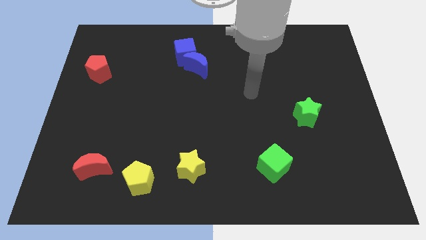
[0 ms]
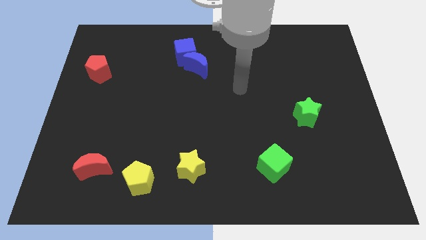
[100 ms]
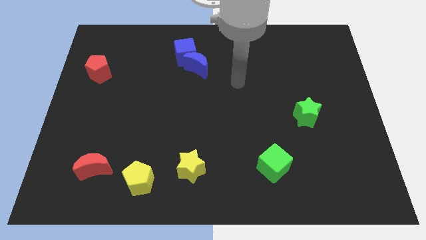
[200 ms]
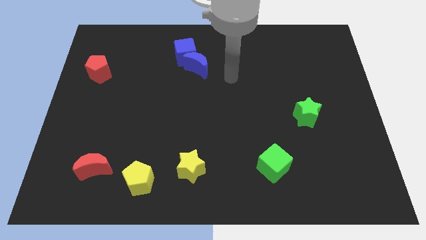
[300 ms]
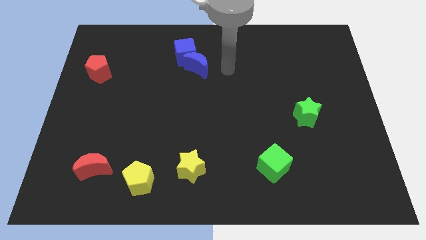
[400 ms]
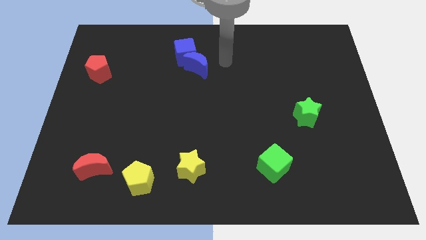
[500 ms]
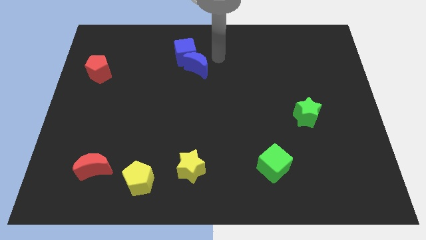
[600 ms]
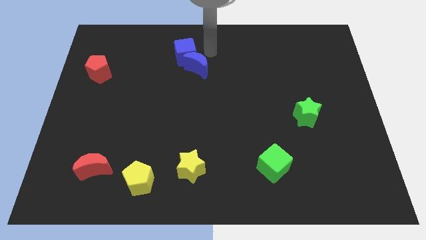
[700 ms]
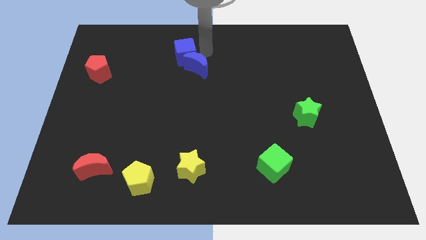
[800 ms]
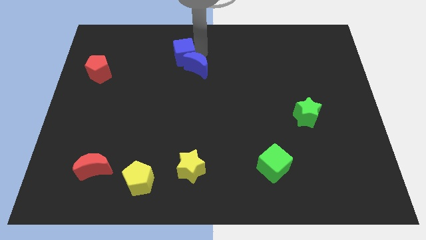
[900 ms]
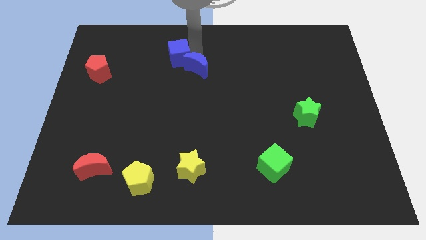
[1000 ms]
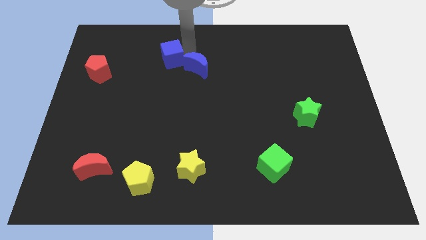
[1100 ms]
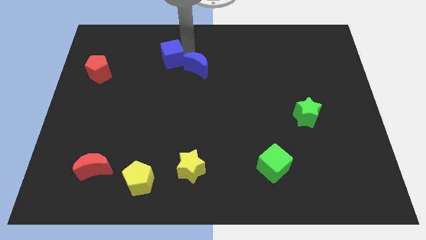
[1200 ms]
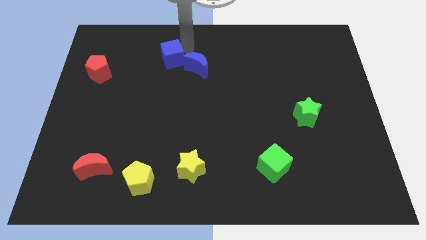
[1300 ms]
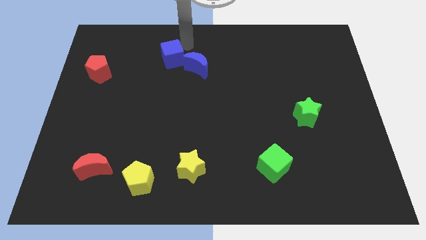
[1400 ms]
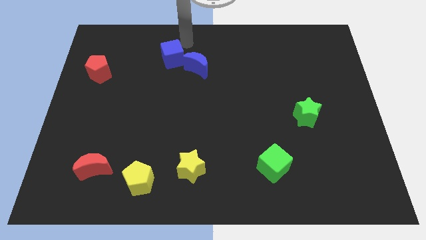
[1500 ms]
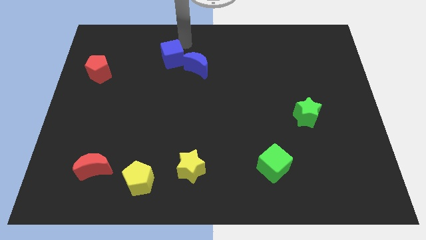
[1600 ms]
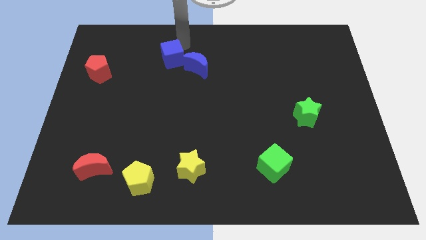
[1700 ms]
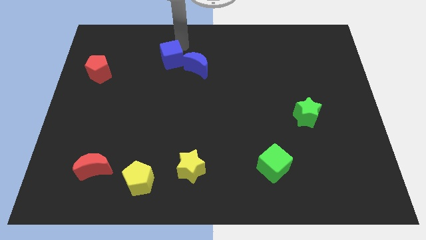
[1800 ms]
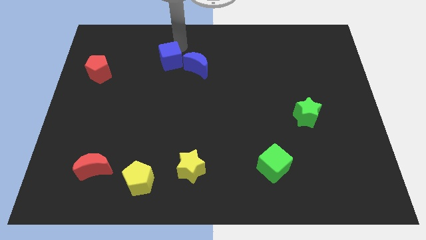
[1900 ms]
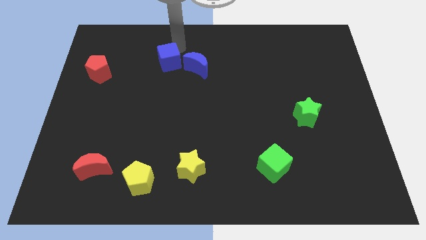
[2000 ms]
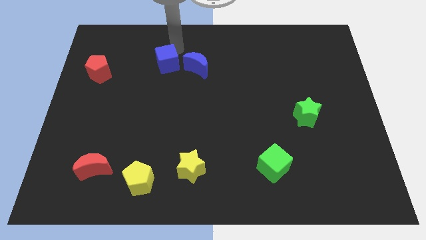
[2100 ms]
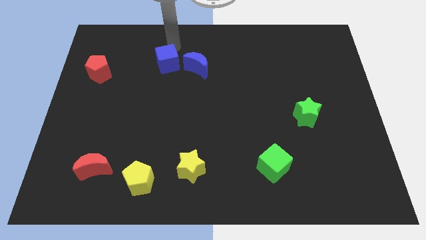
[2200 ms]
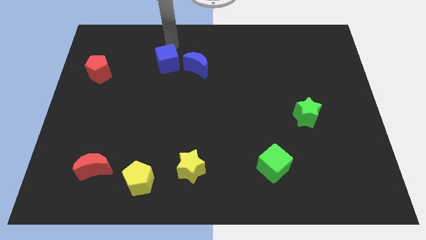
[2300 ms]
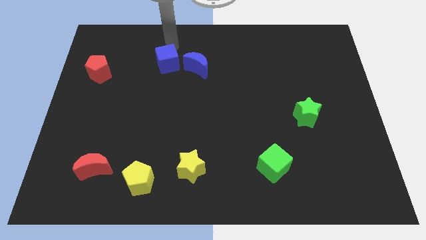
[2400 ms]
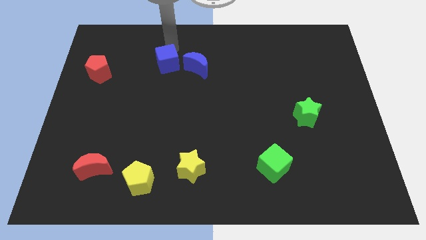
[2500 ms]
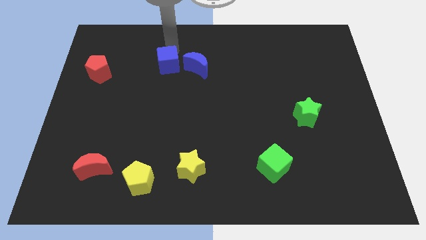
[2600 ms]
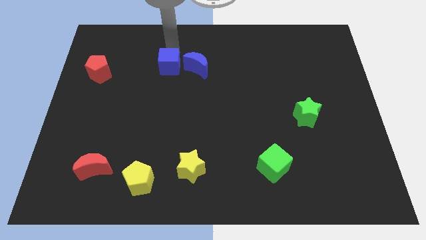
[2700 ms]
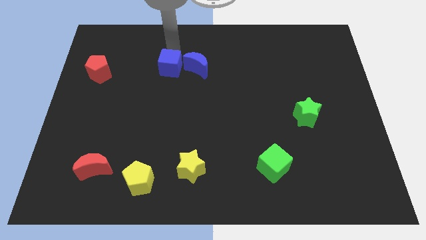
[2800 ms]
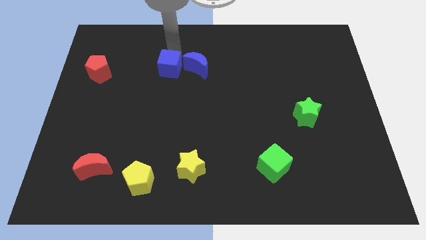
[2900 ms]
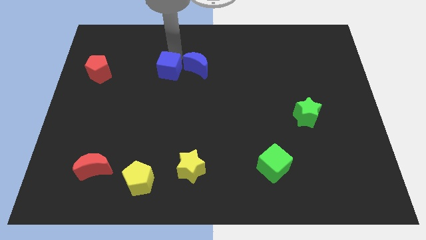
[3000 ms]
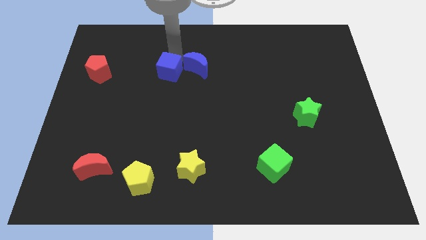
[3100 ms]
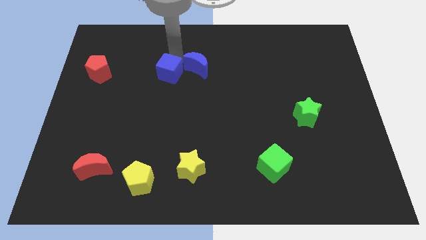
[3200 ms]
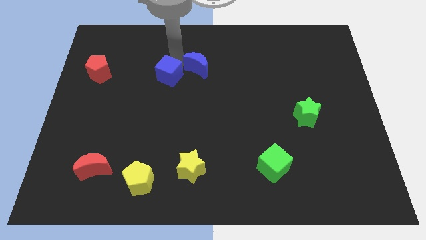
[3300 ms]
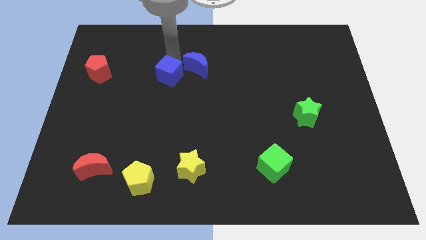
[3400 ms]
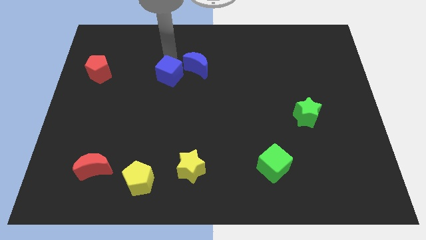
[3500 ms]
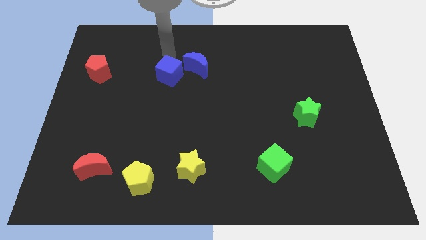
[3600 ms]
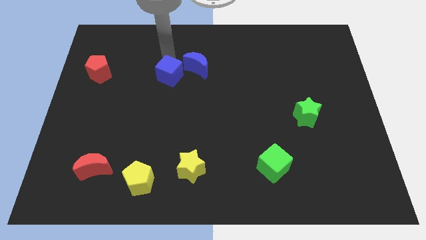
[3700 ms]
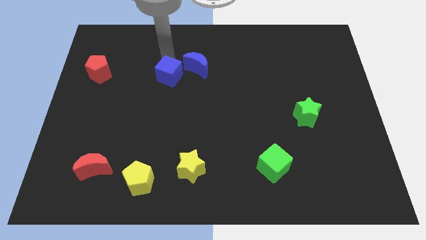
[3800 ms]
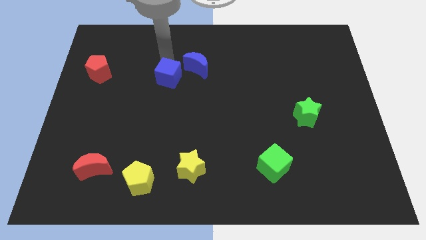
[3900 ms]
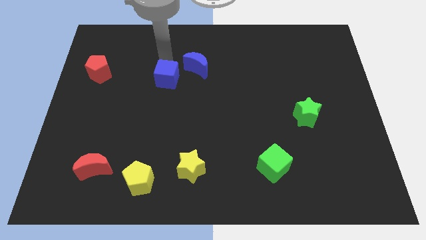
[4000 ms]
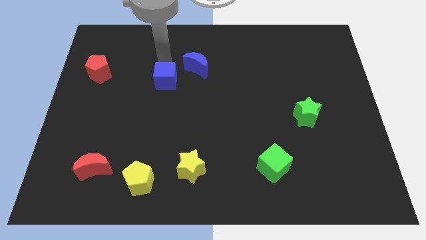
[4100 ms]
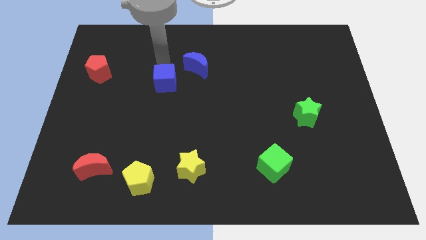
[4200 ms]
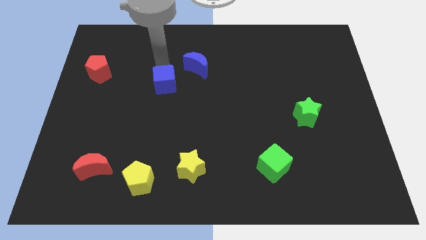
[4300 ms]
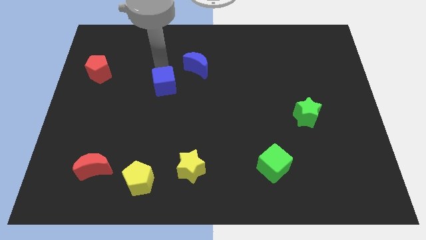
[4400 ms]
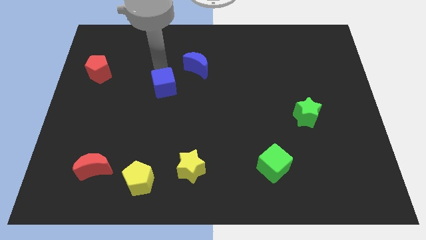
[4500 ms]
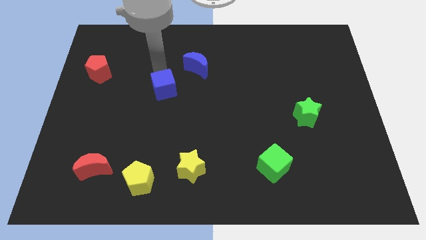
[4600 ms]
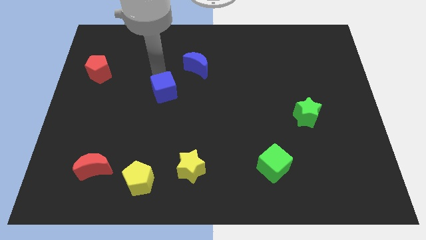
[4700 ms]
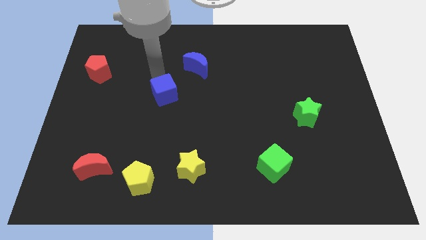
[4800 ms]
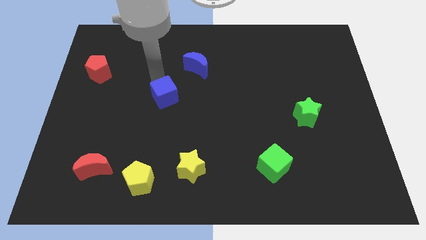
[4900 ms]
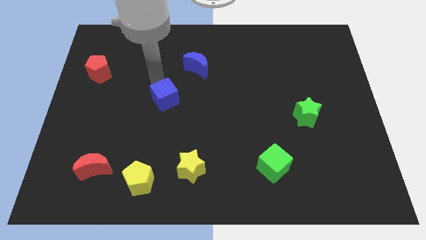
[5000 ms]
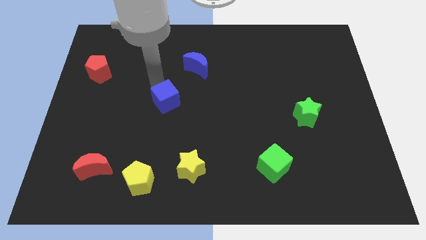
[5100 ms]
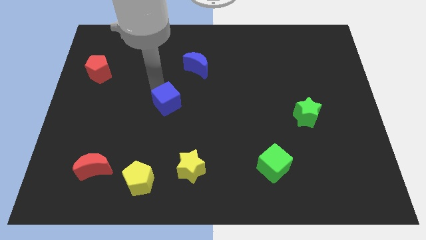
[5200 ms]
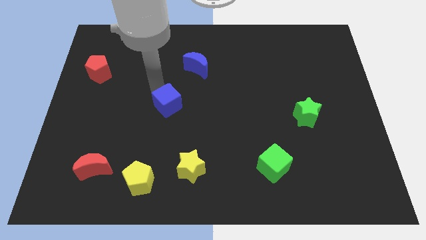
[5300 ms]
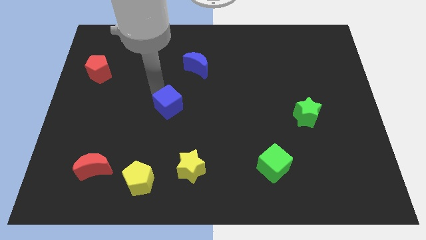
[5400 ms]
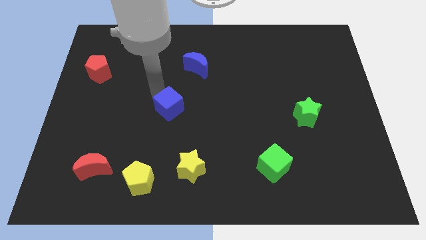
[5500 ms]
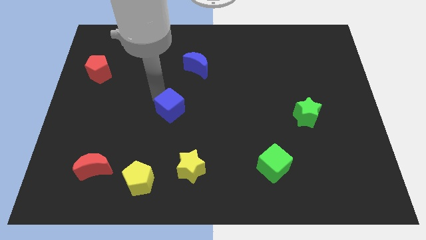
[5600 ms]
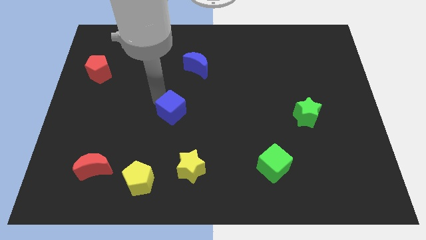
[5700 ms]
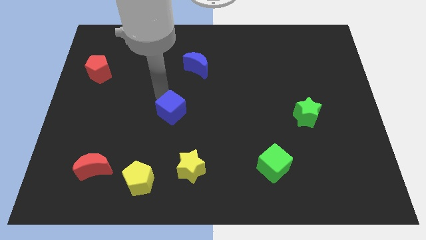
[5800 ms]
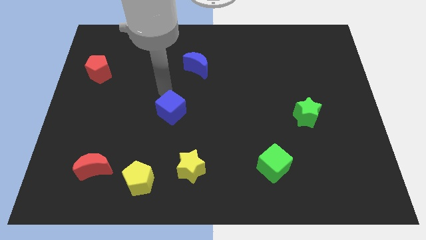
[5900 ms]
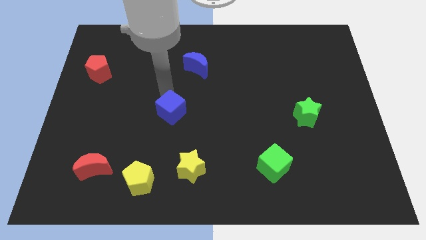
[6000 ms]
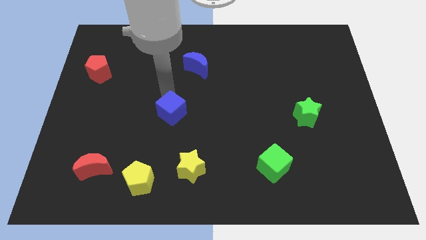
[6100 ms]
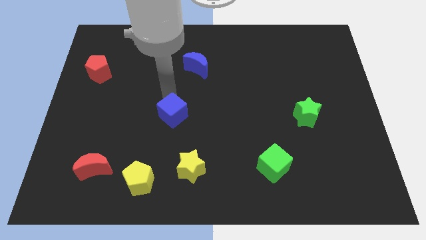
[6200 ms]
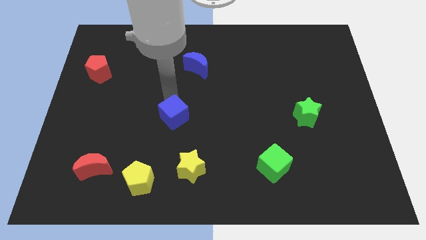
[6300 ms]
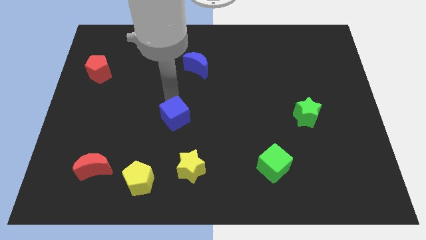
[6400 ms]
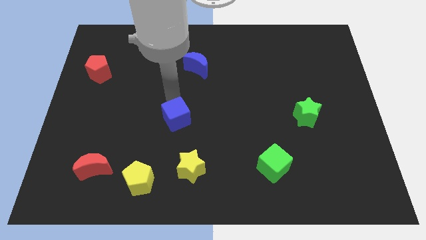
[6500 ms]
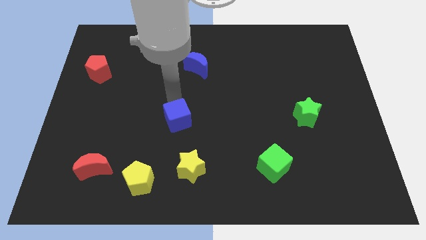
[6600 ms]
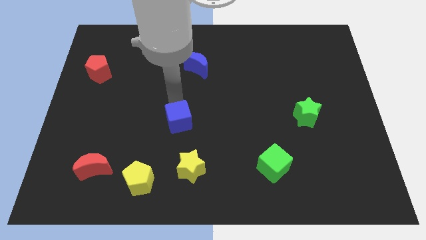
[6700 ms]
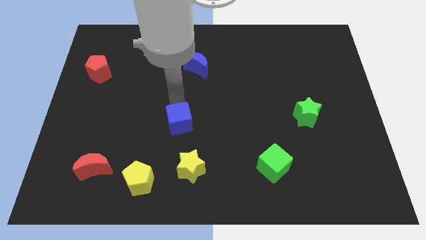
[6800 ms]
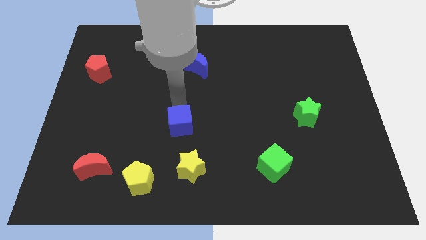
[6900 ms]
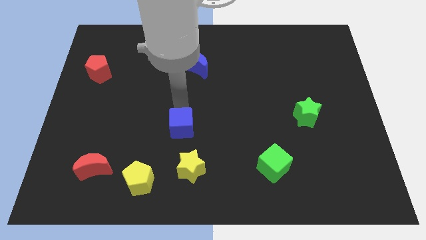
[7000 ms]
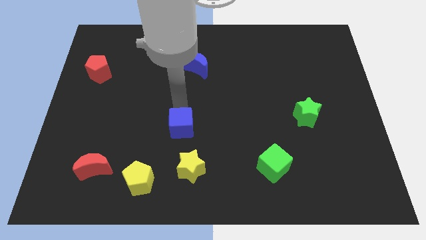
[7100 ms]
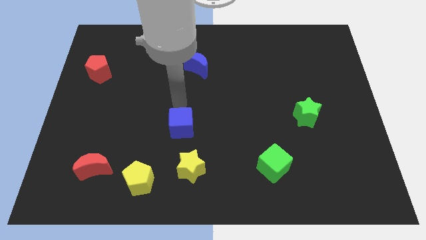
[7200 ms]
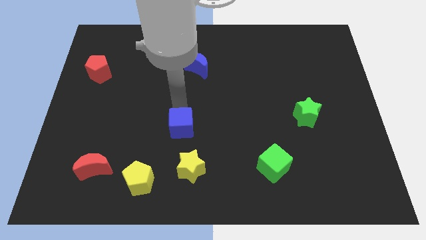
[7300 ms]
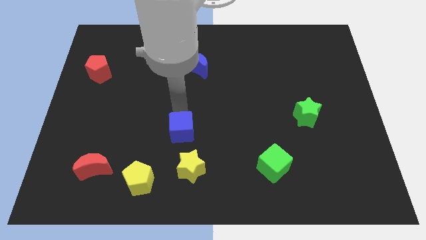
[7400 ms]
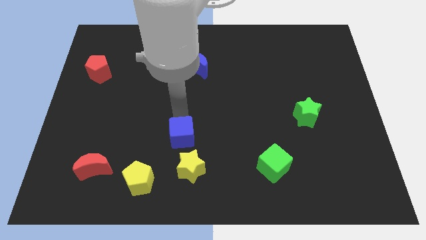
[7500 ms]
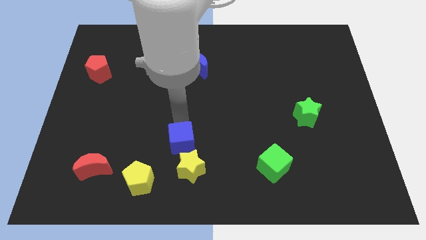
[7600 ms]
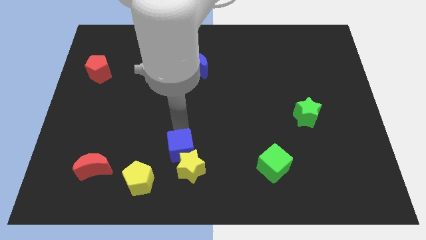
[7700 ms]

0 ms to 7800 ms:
move the blue cube close to the yellow star
